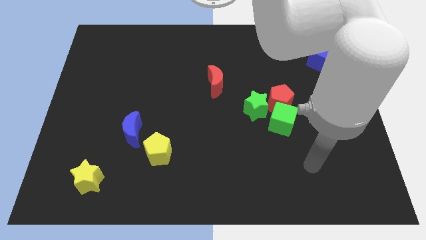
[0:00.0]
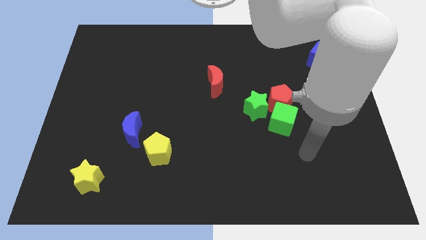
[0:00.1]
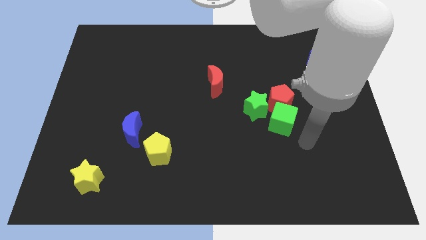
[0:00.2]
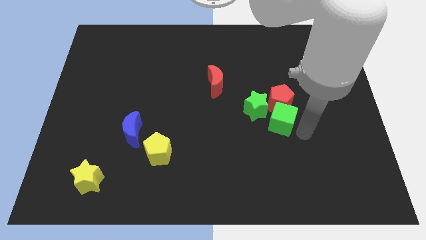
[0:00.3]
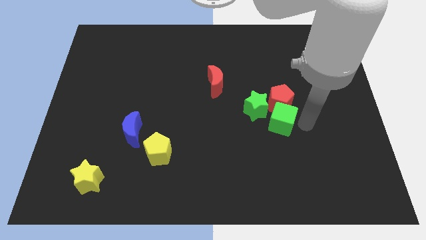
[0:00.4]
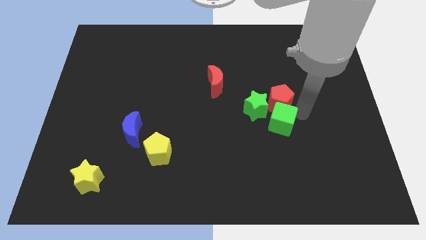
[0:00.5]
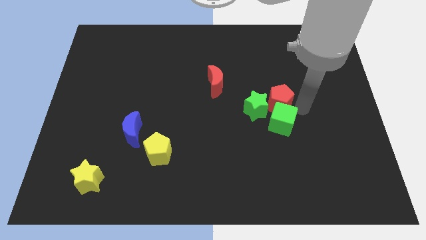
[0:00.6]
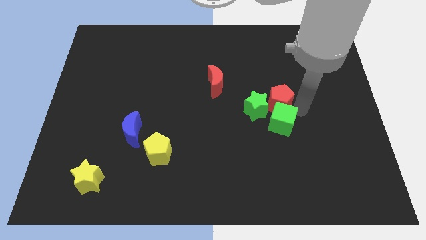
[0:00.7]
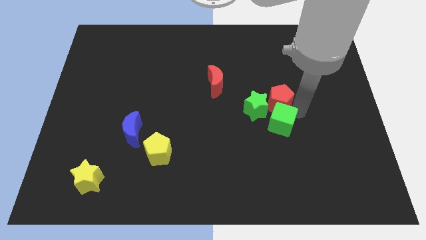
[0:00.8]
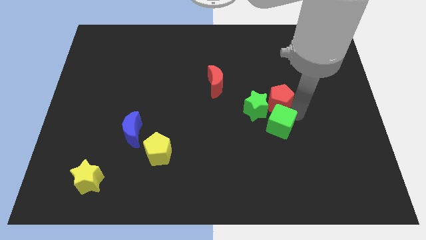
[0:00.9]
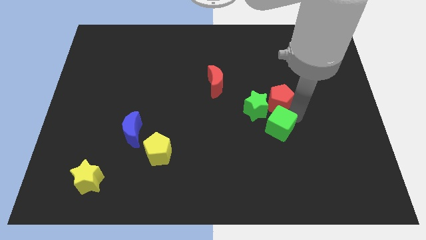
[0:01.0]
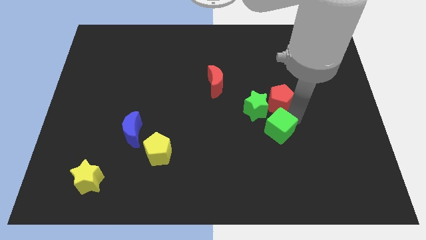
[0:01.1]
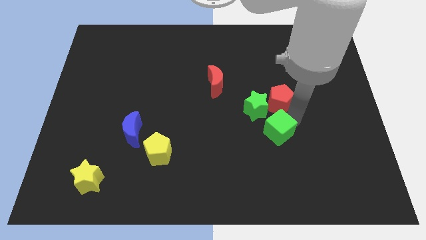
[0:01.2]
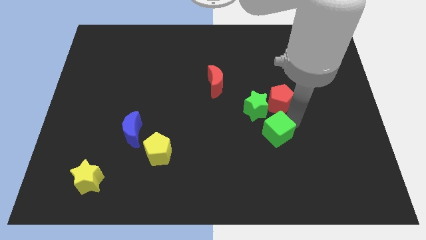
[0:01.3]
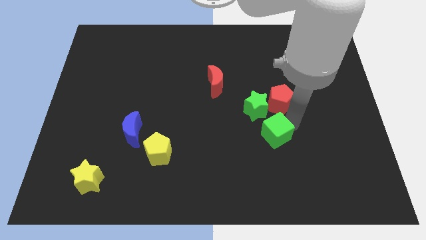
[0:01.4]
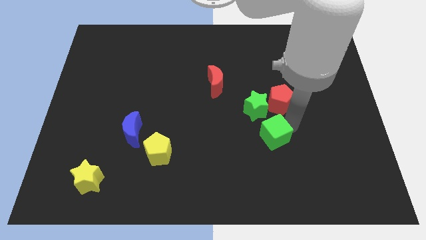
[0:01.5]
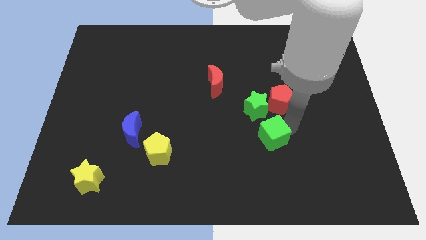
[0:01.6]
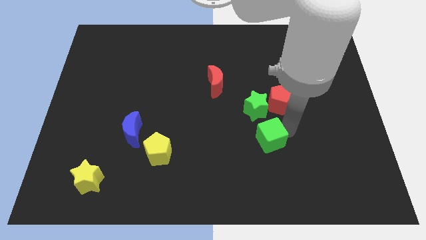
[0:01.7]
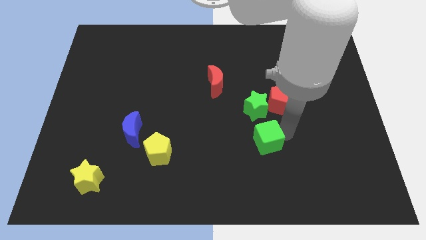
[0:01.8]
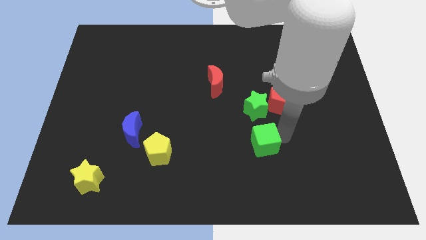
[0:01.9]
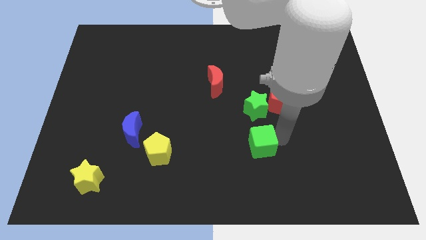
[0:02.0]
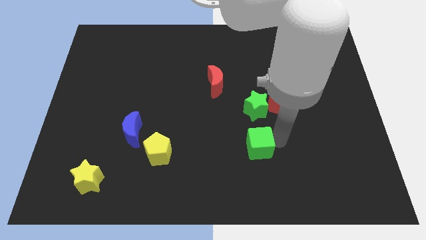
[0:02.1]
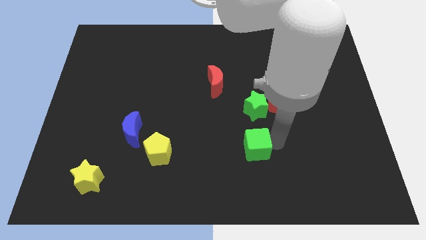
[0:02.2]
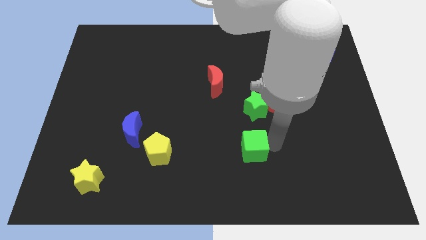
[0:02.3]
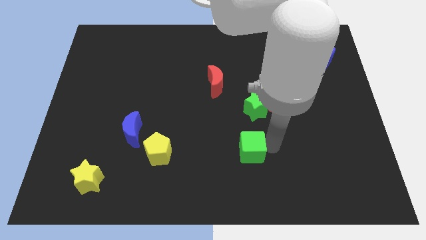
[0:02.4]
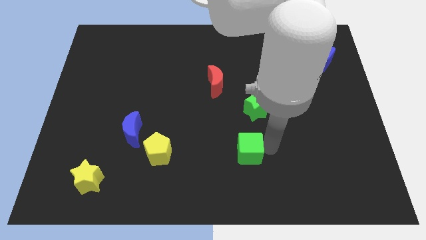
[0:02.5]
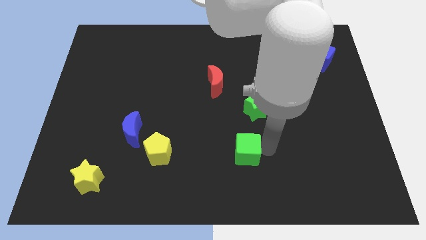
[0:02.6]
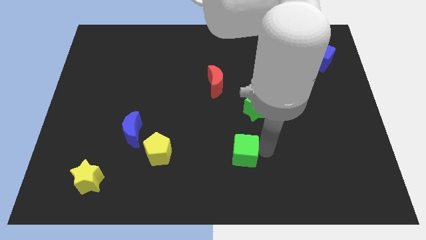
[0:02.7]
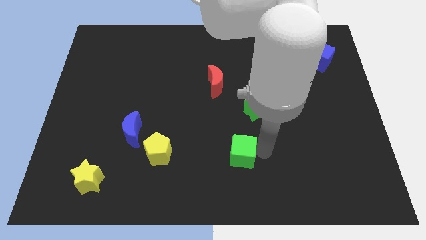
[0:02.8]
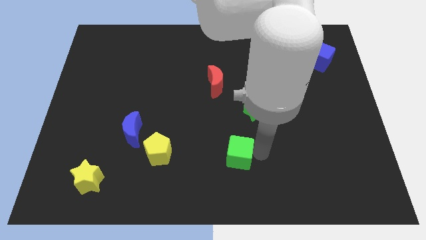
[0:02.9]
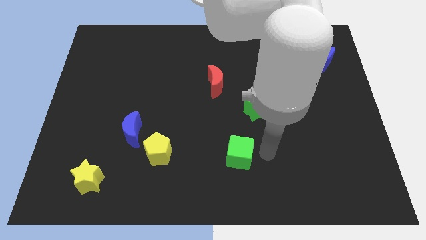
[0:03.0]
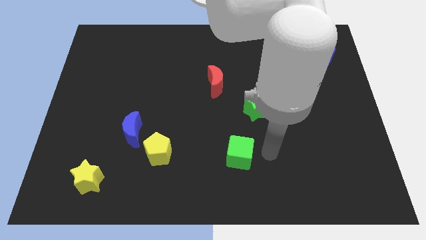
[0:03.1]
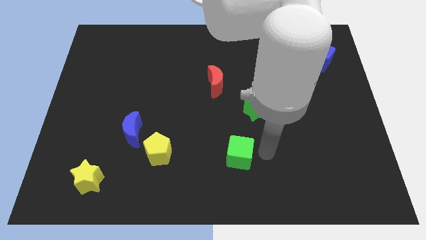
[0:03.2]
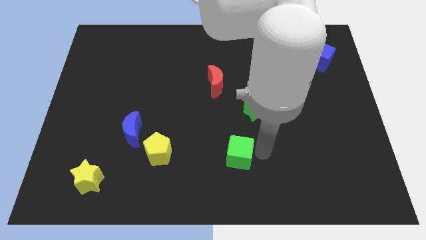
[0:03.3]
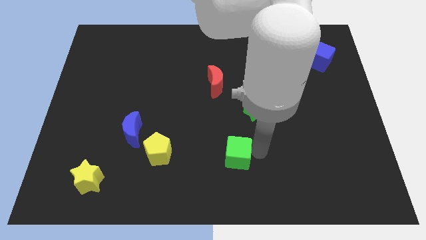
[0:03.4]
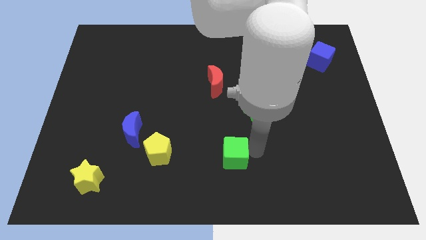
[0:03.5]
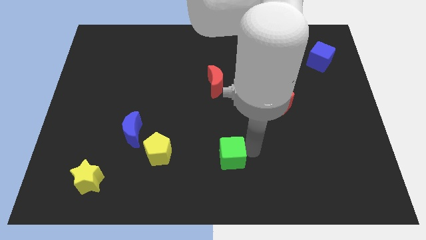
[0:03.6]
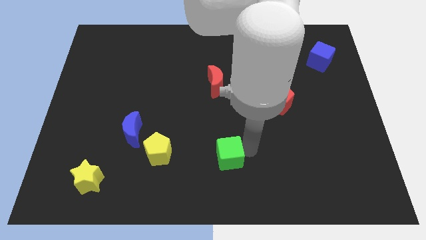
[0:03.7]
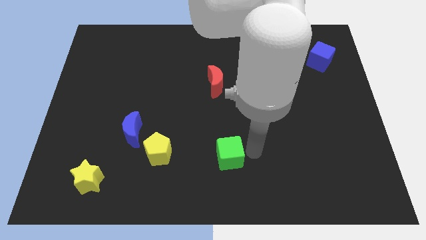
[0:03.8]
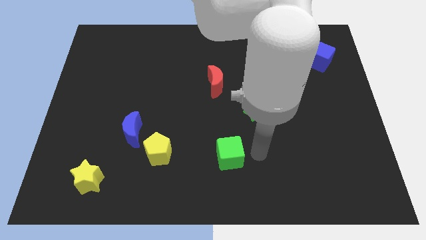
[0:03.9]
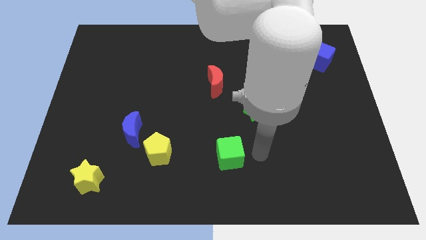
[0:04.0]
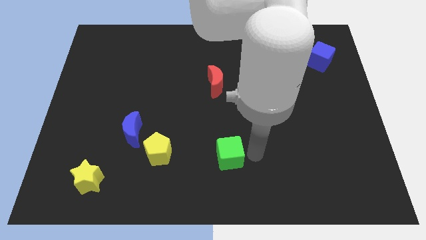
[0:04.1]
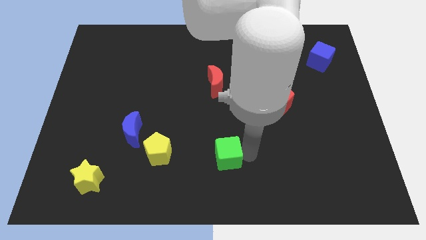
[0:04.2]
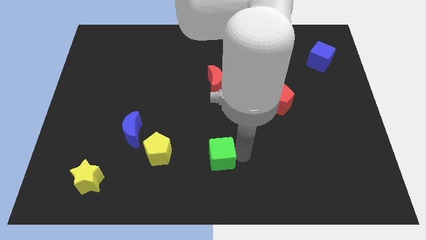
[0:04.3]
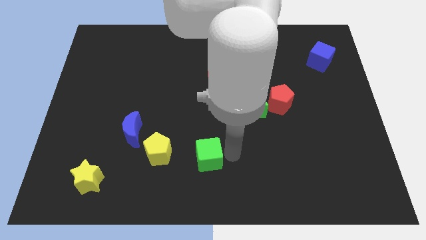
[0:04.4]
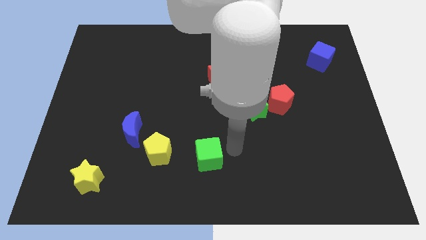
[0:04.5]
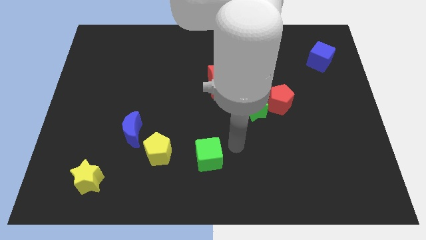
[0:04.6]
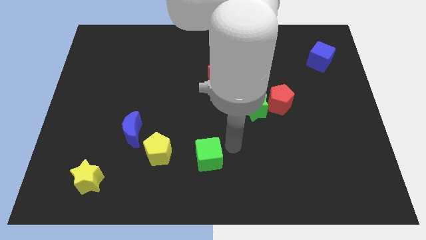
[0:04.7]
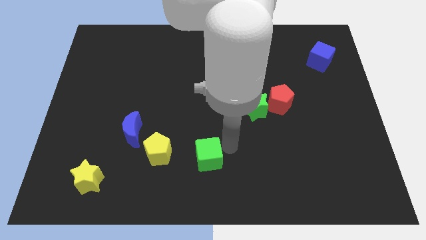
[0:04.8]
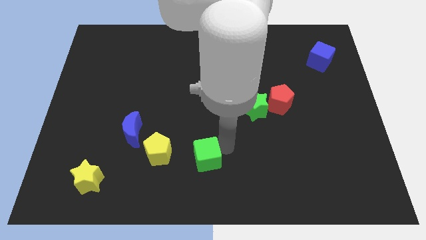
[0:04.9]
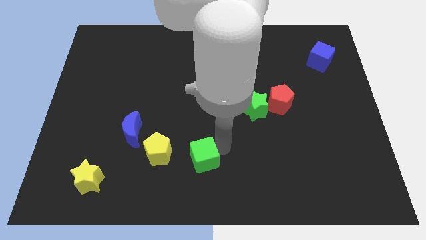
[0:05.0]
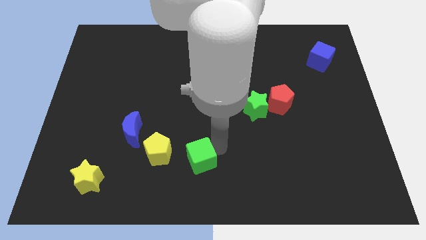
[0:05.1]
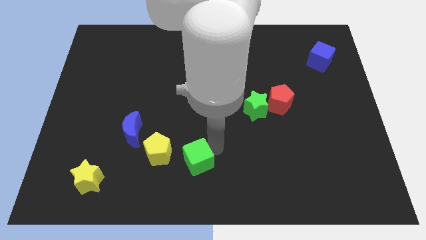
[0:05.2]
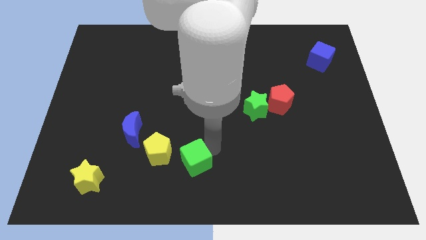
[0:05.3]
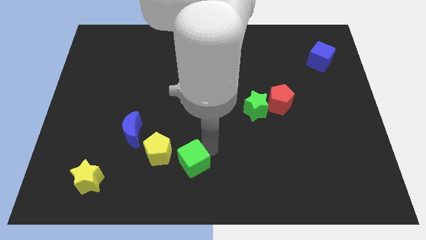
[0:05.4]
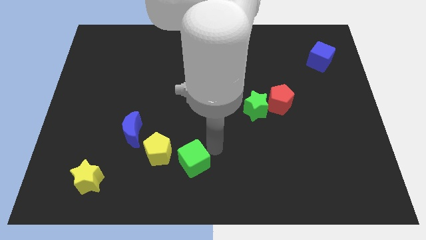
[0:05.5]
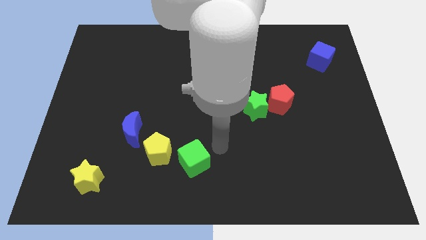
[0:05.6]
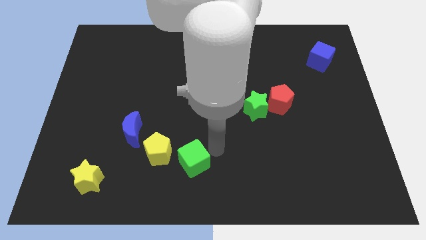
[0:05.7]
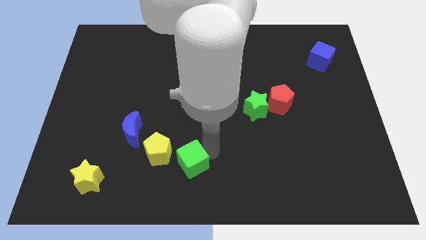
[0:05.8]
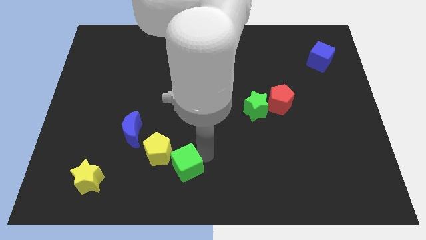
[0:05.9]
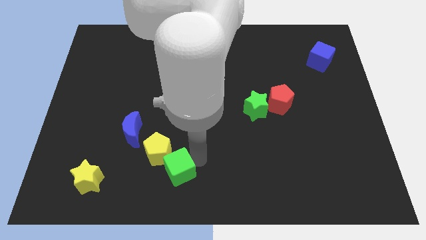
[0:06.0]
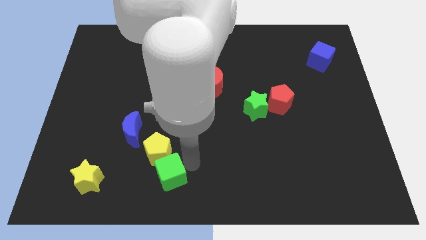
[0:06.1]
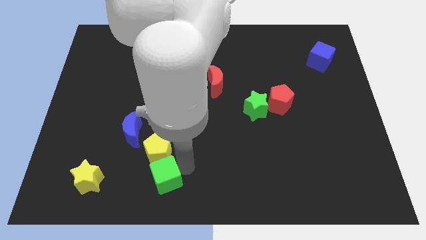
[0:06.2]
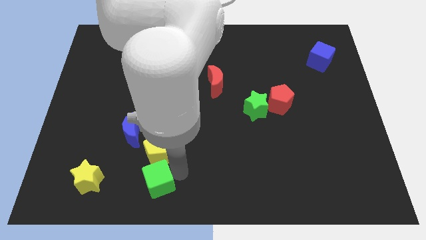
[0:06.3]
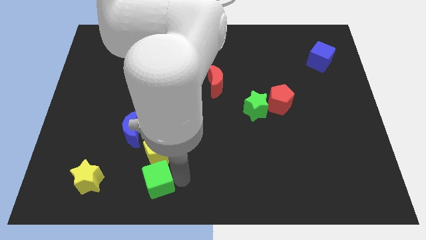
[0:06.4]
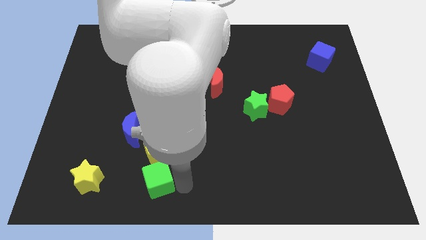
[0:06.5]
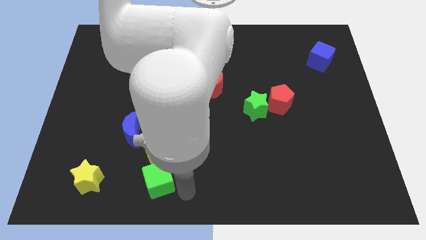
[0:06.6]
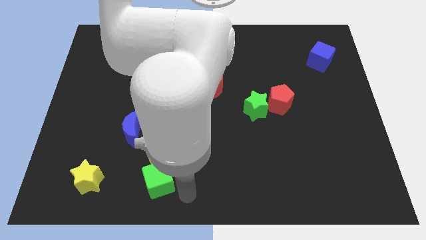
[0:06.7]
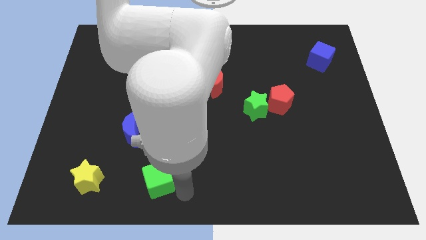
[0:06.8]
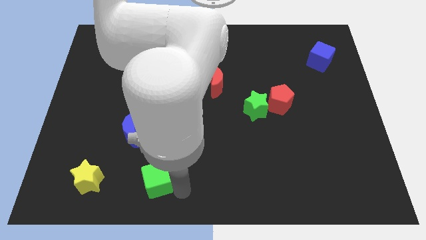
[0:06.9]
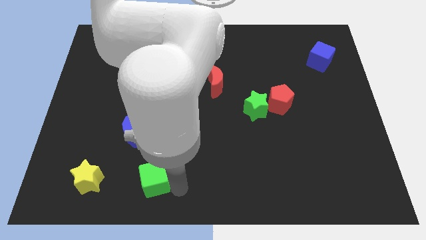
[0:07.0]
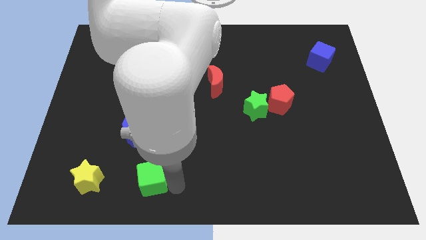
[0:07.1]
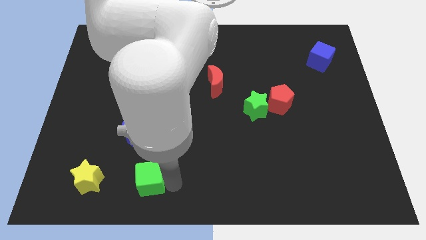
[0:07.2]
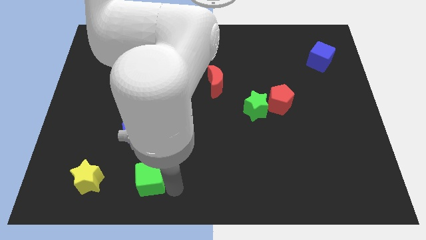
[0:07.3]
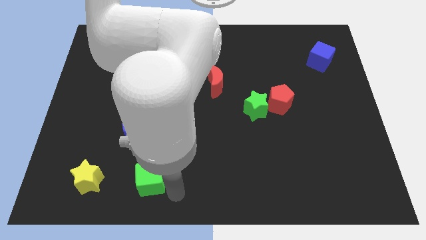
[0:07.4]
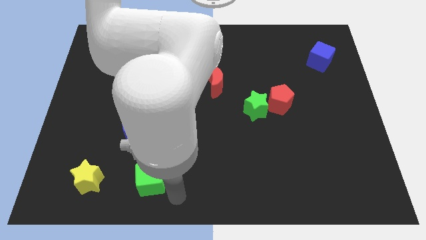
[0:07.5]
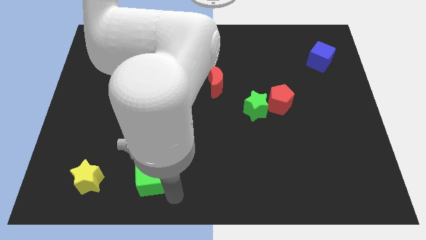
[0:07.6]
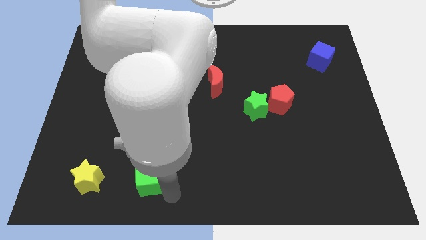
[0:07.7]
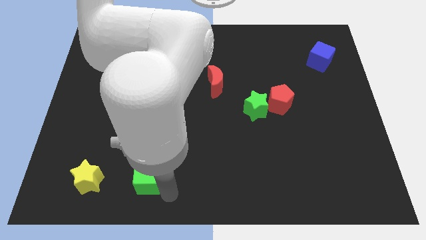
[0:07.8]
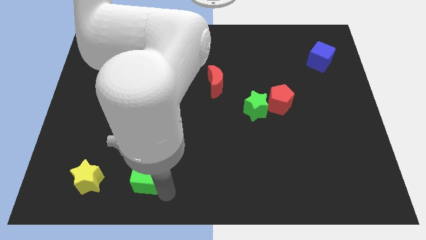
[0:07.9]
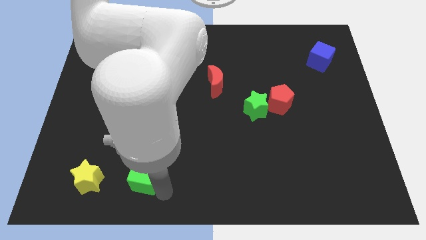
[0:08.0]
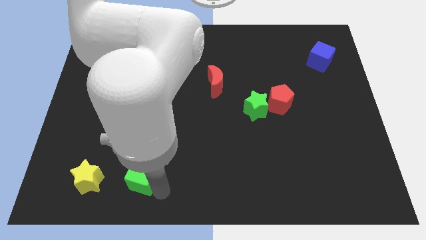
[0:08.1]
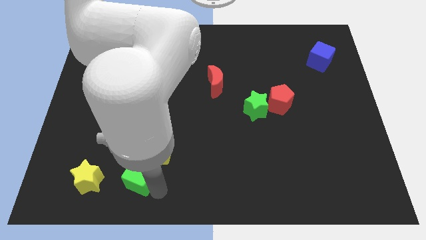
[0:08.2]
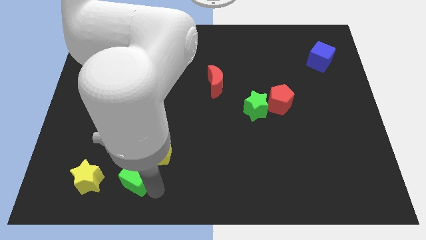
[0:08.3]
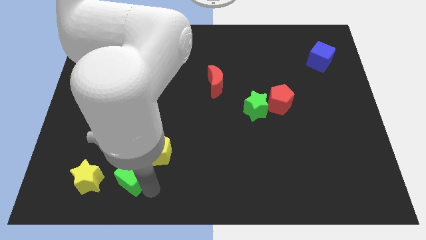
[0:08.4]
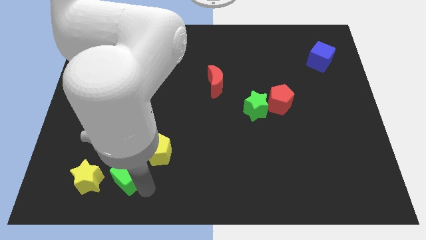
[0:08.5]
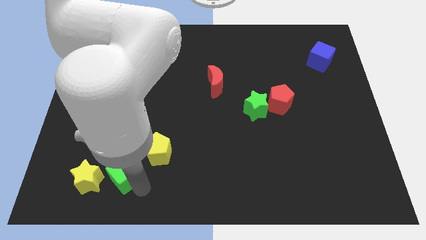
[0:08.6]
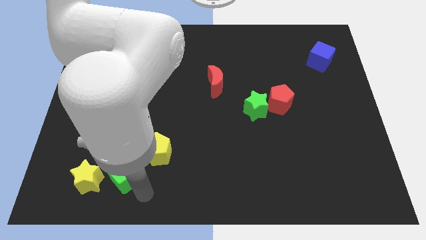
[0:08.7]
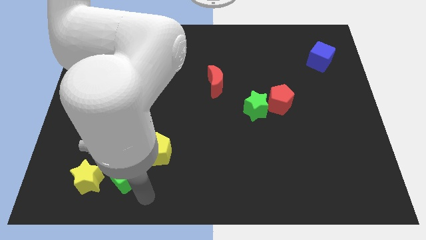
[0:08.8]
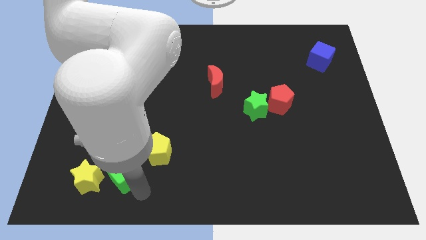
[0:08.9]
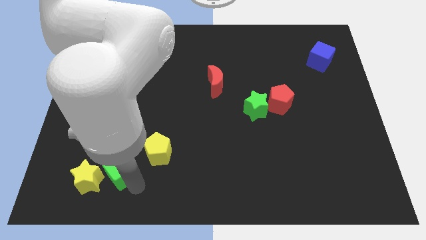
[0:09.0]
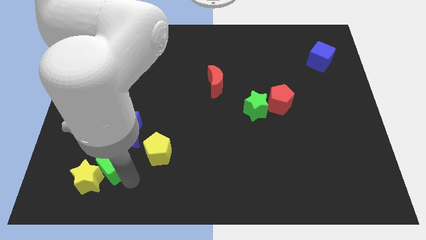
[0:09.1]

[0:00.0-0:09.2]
put the green cube diagonally down and to the left of the blue moon
